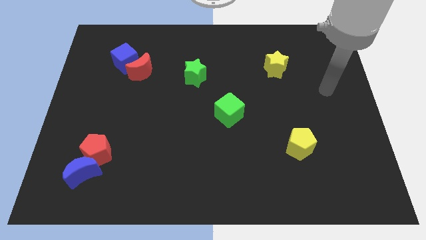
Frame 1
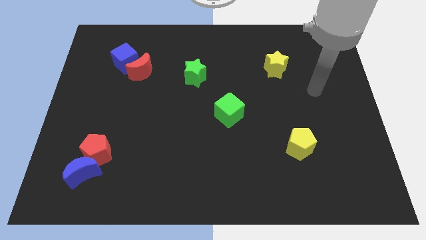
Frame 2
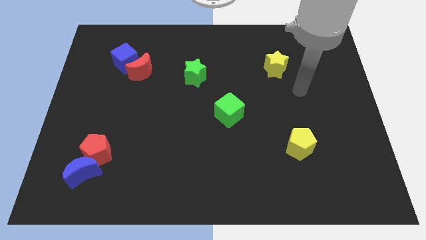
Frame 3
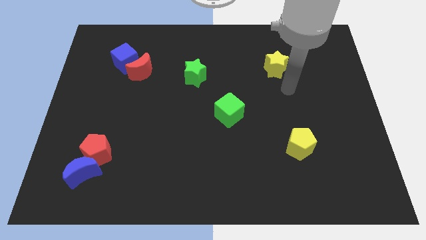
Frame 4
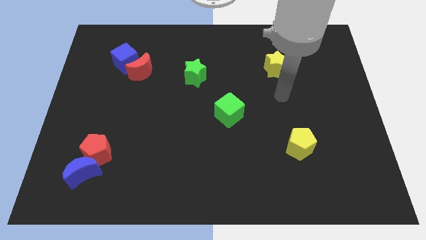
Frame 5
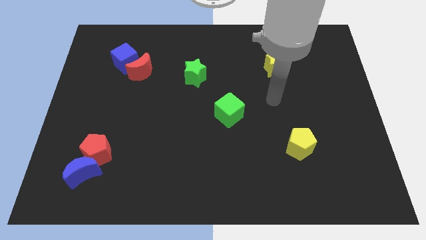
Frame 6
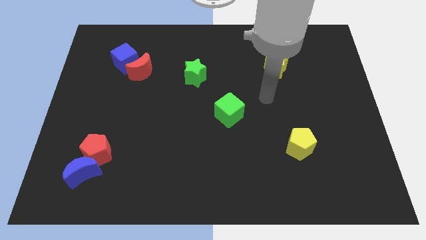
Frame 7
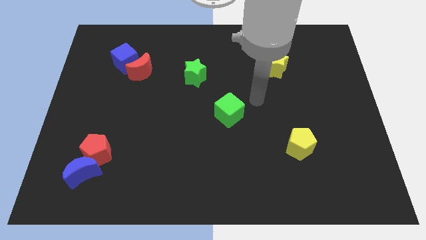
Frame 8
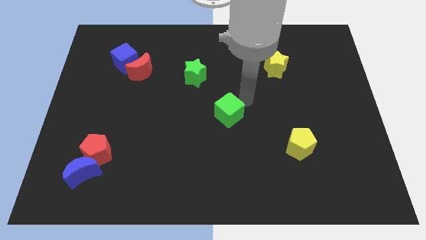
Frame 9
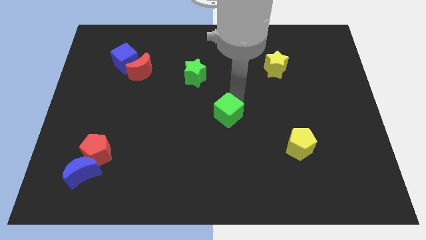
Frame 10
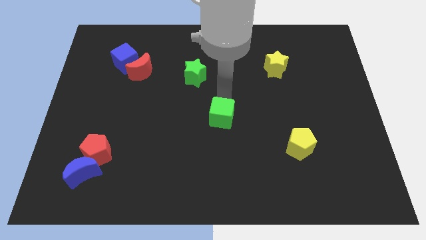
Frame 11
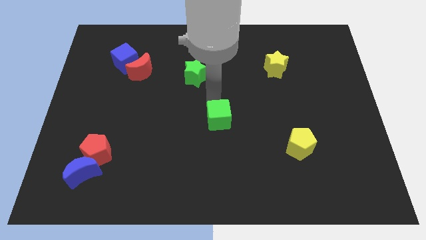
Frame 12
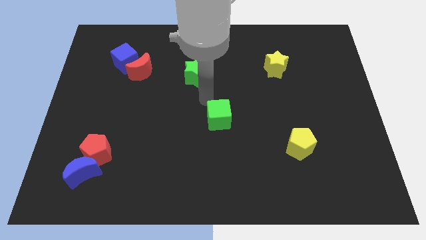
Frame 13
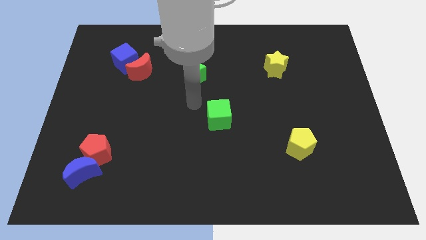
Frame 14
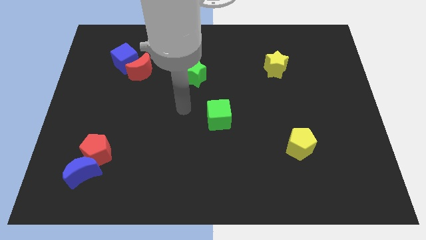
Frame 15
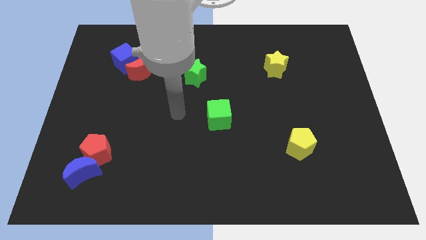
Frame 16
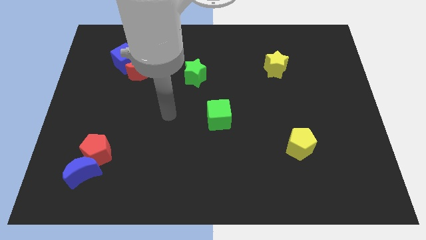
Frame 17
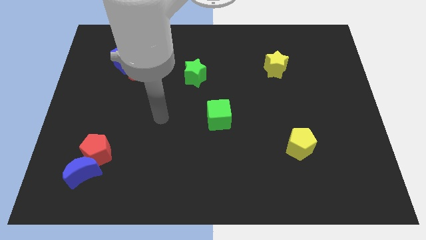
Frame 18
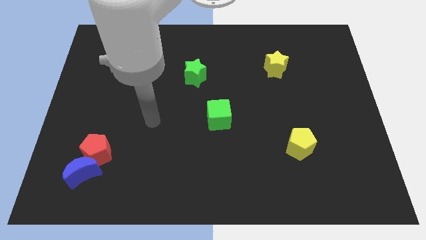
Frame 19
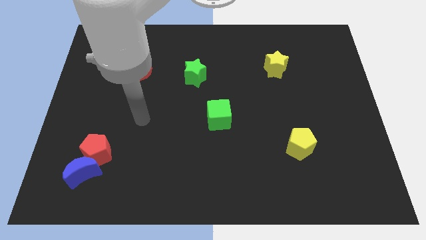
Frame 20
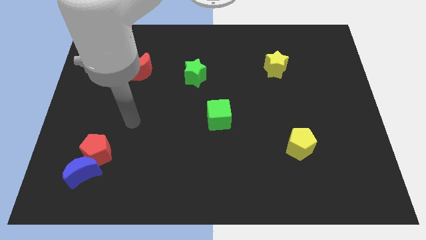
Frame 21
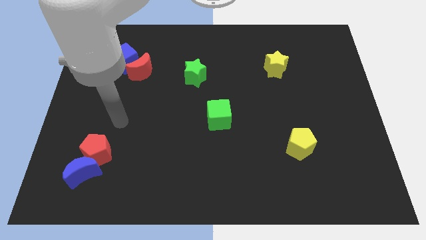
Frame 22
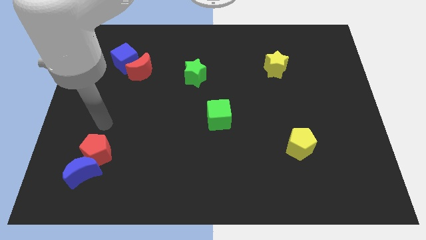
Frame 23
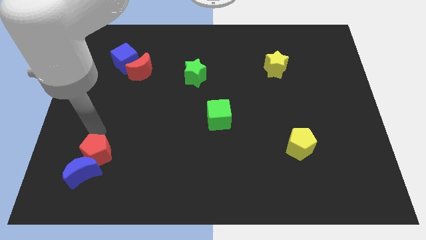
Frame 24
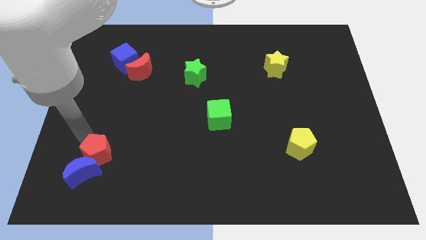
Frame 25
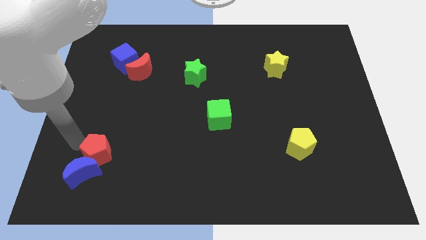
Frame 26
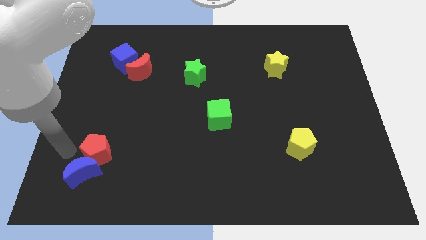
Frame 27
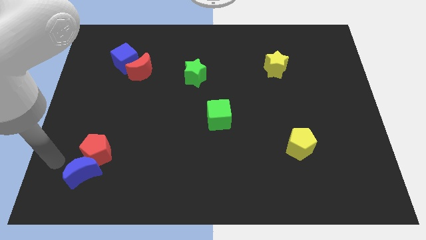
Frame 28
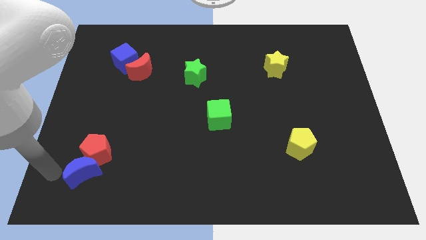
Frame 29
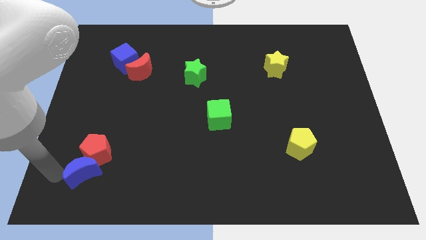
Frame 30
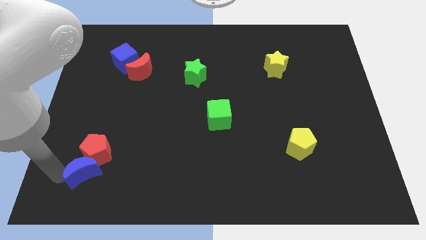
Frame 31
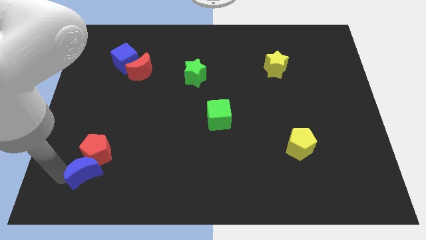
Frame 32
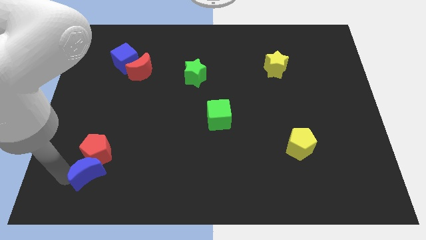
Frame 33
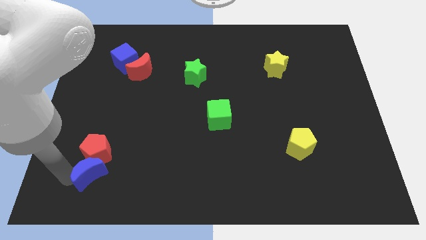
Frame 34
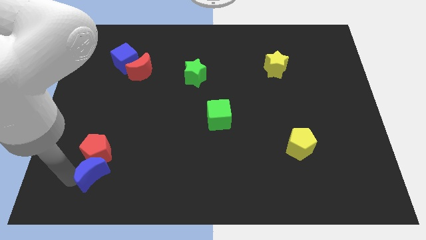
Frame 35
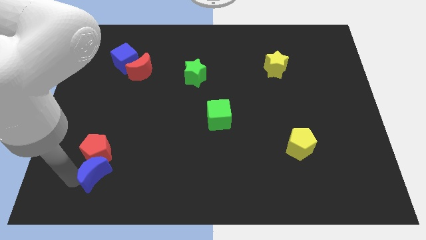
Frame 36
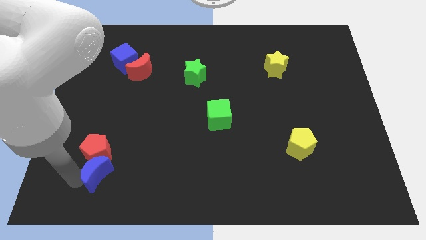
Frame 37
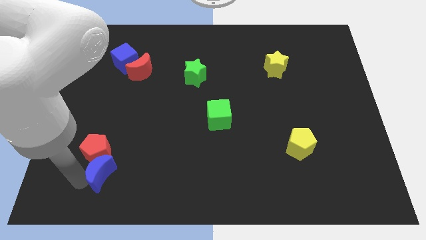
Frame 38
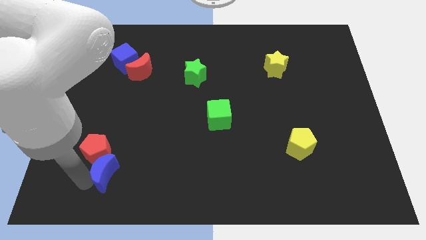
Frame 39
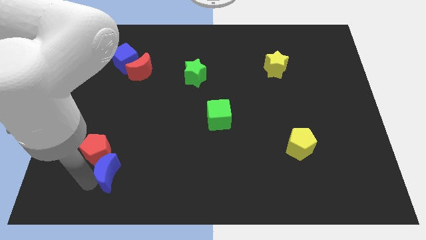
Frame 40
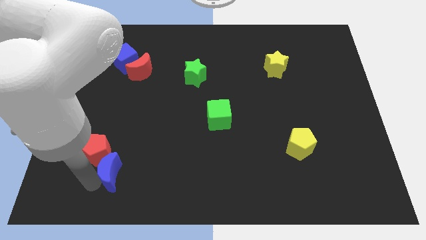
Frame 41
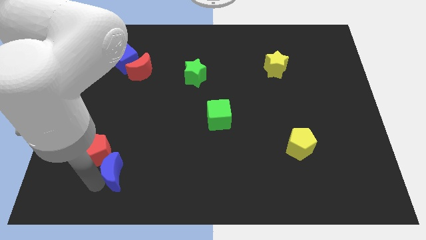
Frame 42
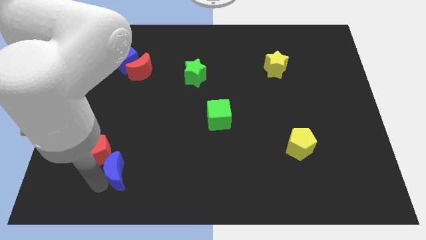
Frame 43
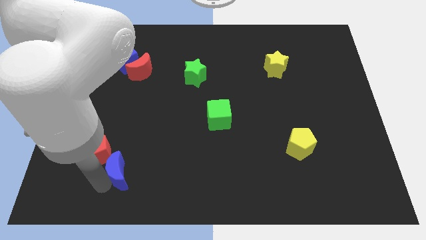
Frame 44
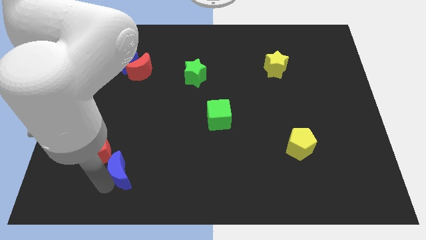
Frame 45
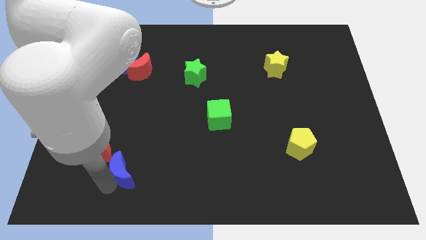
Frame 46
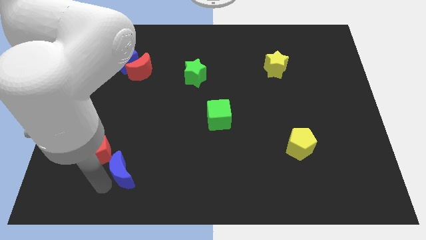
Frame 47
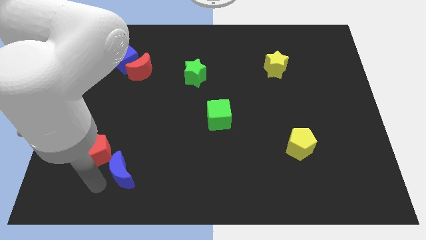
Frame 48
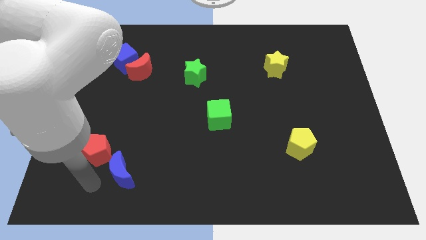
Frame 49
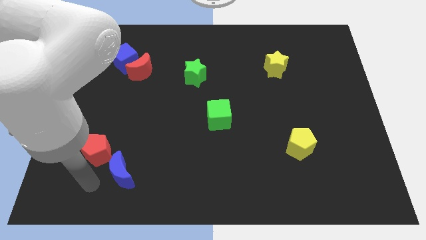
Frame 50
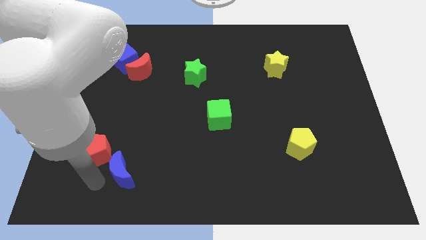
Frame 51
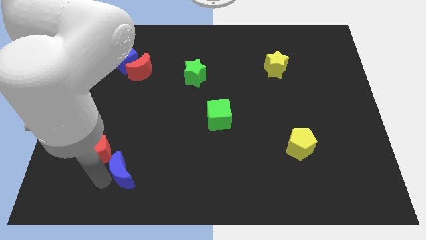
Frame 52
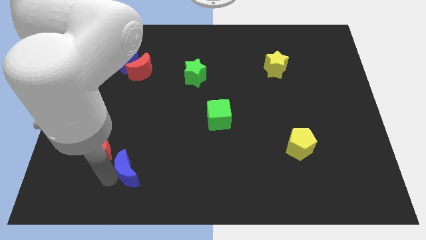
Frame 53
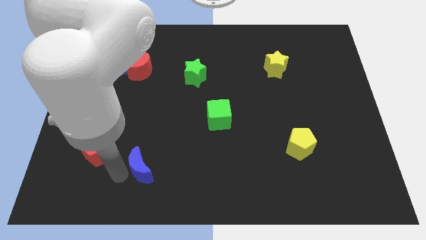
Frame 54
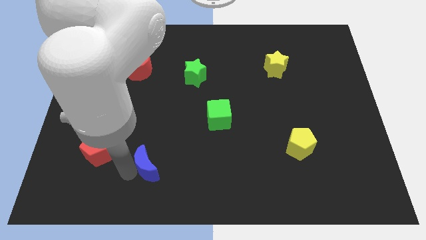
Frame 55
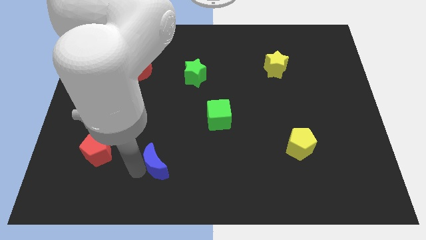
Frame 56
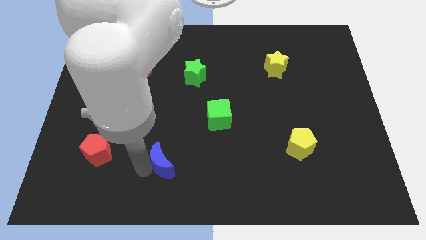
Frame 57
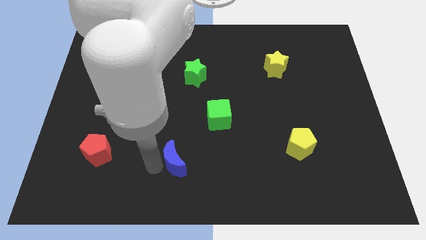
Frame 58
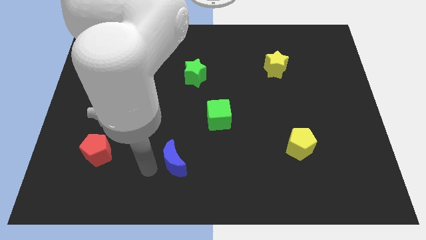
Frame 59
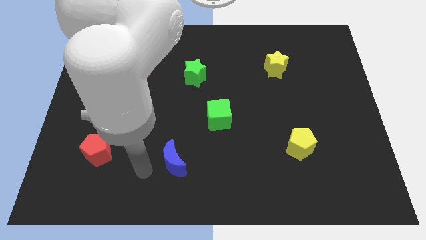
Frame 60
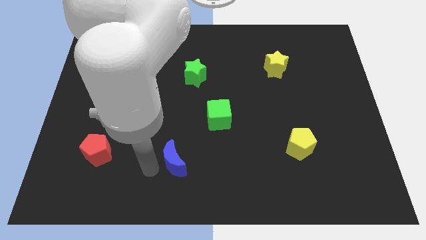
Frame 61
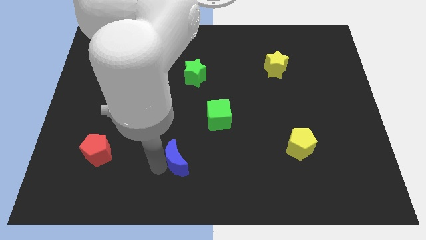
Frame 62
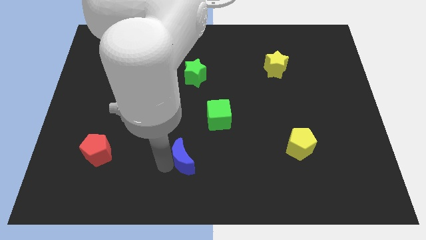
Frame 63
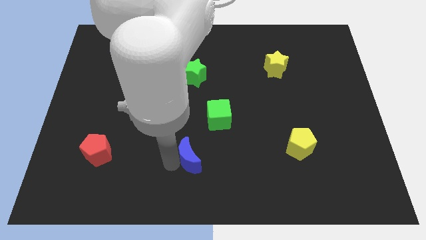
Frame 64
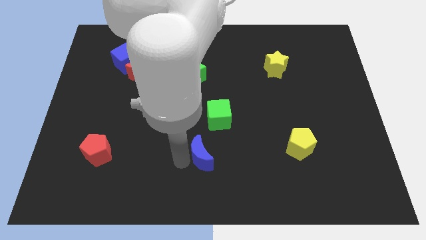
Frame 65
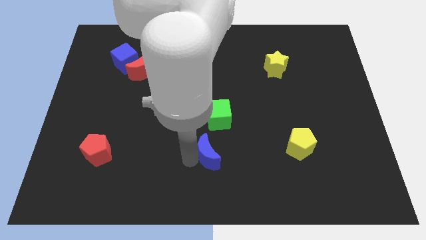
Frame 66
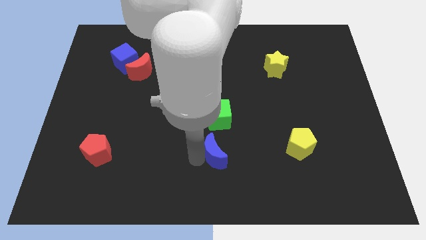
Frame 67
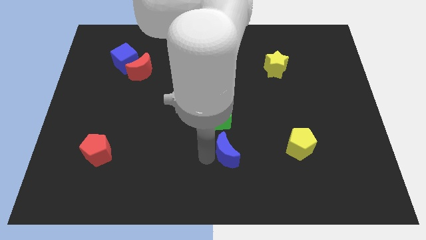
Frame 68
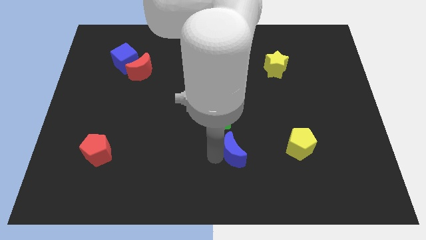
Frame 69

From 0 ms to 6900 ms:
slide the blue moon to the left of the yellow pentagon

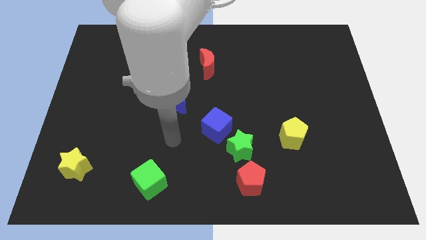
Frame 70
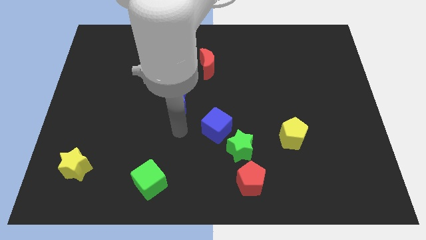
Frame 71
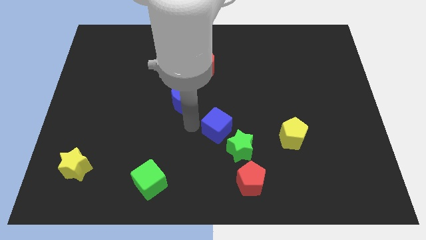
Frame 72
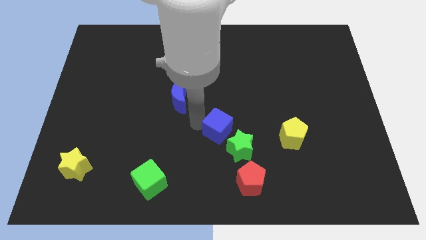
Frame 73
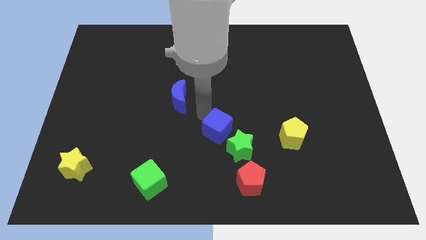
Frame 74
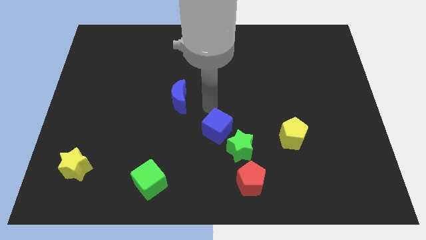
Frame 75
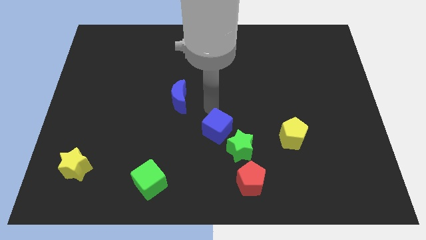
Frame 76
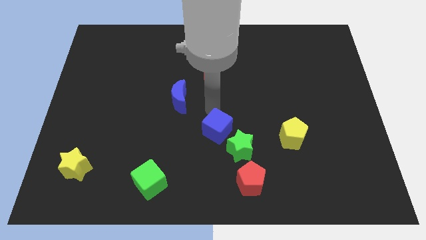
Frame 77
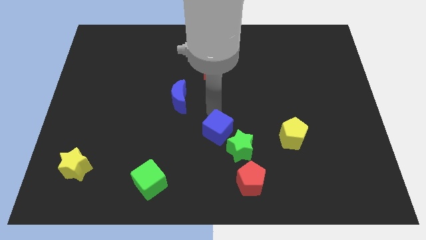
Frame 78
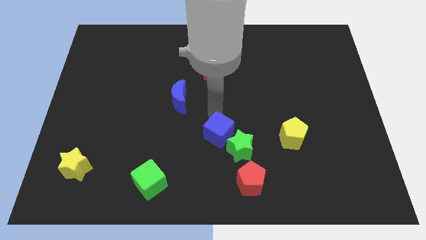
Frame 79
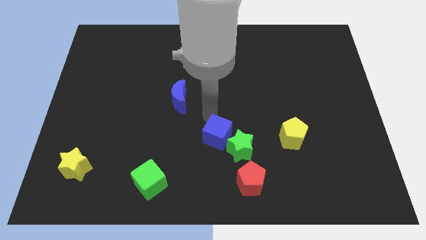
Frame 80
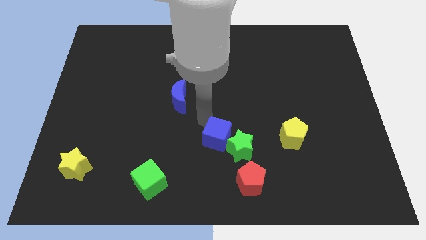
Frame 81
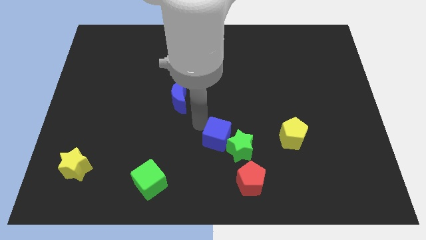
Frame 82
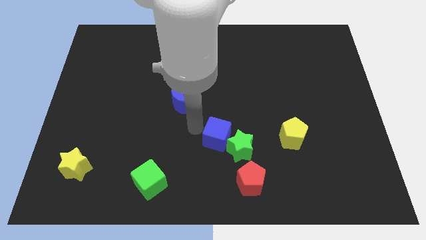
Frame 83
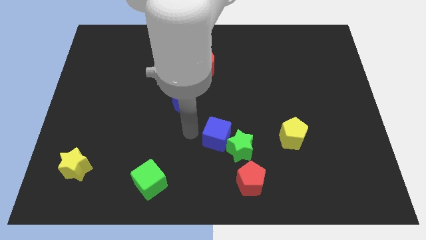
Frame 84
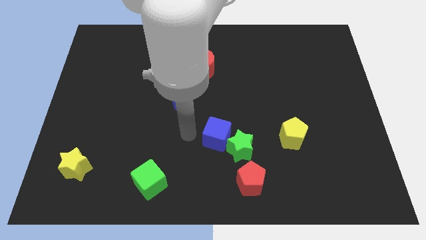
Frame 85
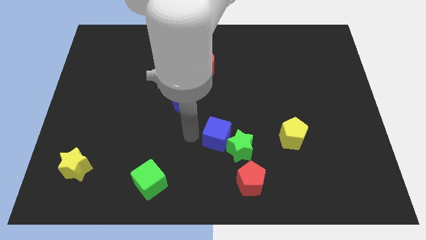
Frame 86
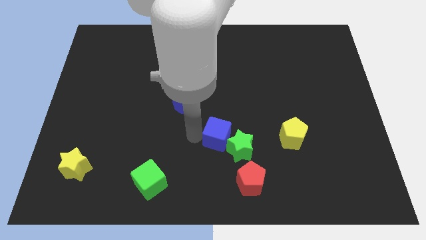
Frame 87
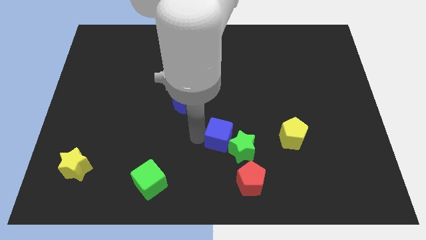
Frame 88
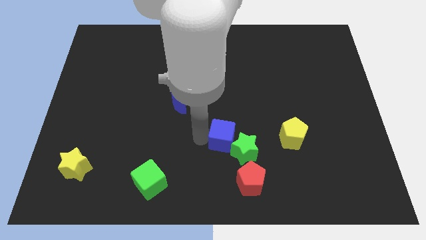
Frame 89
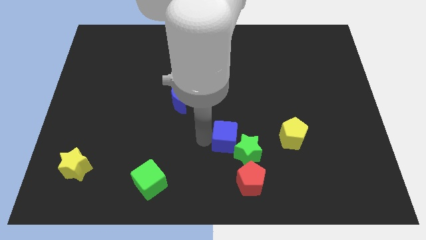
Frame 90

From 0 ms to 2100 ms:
put the blue cube to the top of the red pentagon
